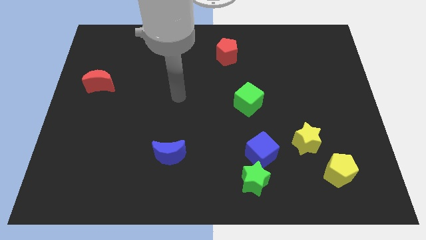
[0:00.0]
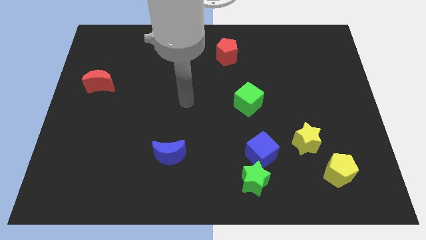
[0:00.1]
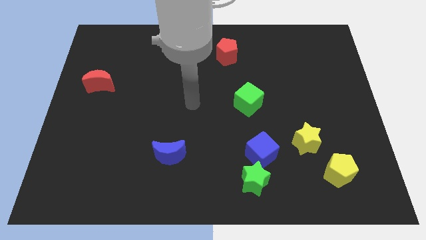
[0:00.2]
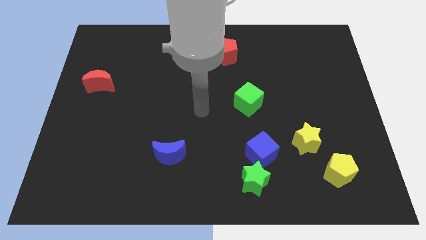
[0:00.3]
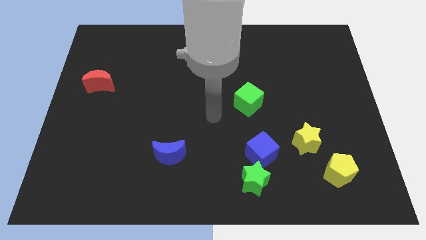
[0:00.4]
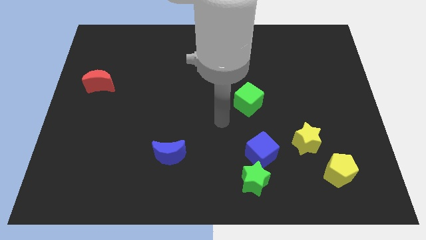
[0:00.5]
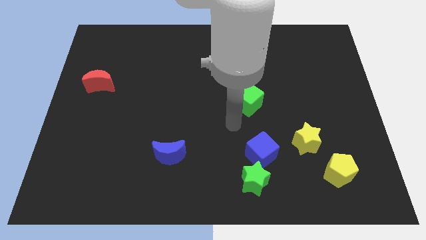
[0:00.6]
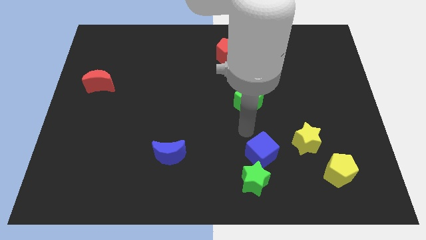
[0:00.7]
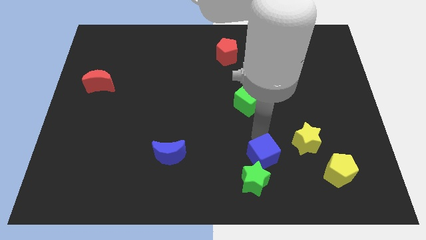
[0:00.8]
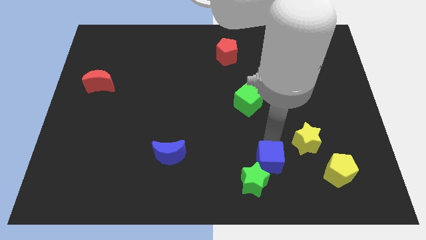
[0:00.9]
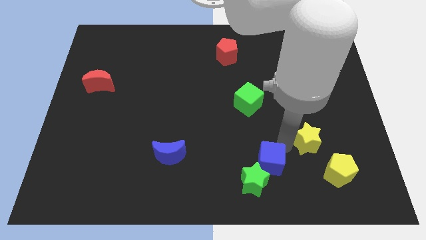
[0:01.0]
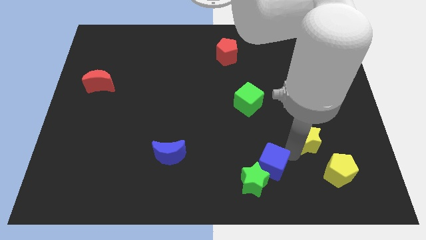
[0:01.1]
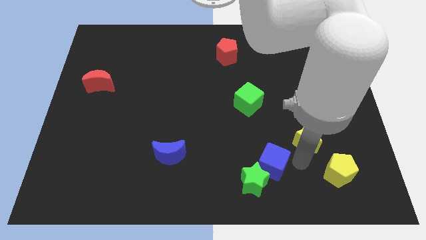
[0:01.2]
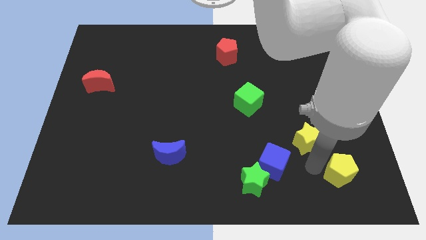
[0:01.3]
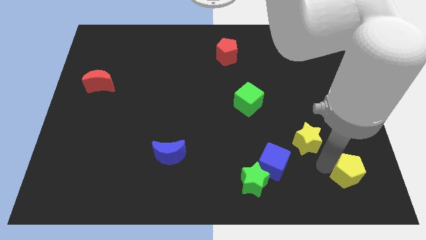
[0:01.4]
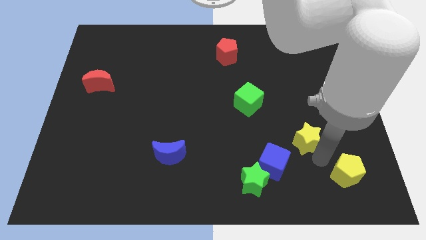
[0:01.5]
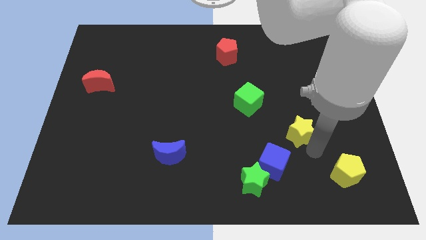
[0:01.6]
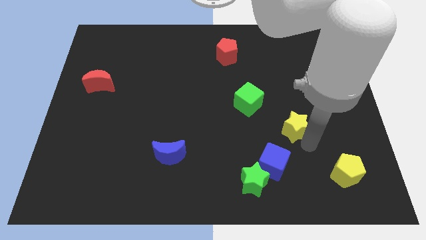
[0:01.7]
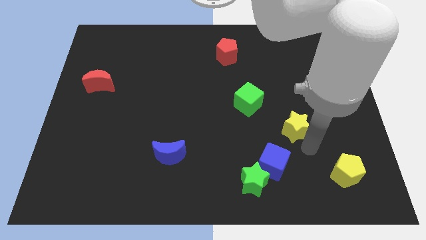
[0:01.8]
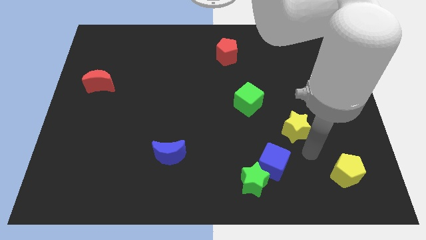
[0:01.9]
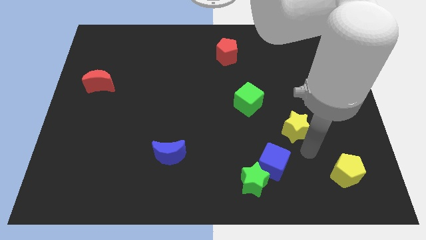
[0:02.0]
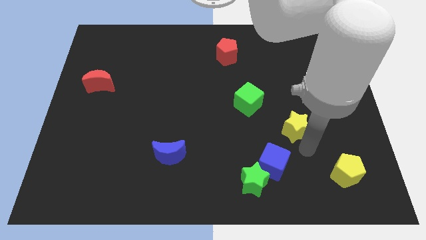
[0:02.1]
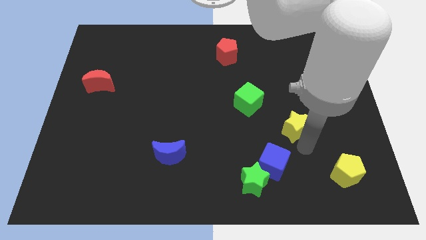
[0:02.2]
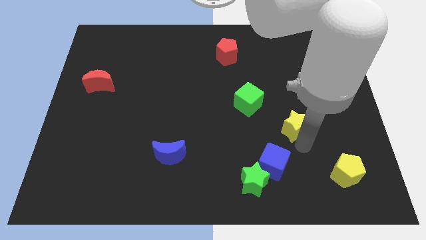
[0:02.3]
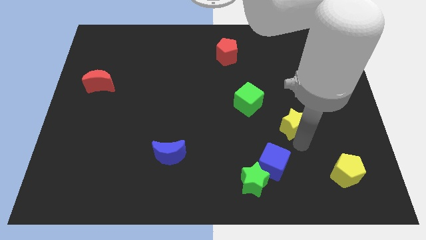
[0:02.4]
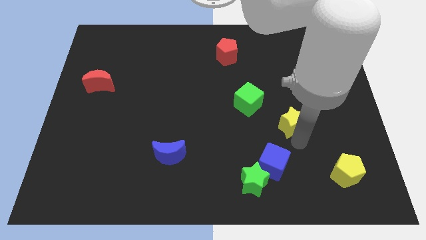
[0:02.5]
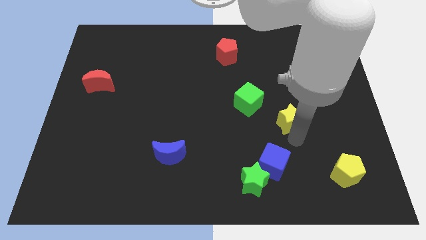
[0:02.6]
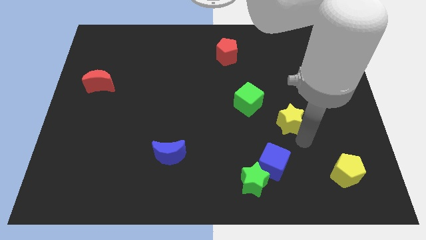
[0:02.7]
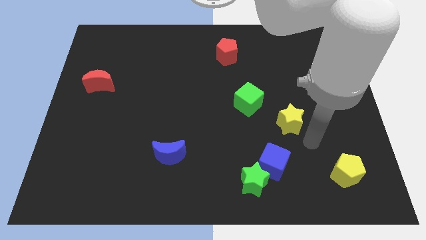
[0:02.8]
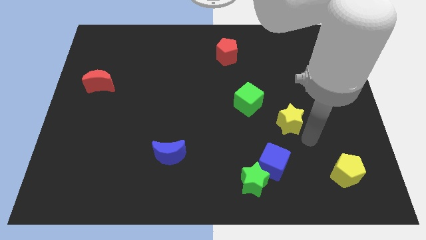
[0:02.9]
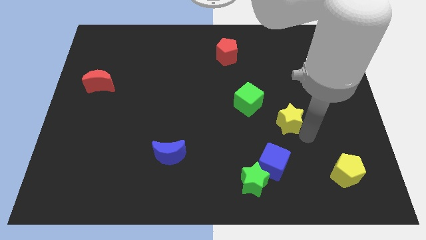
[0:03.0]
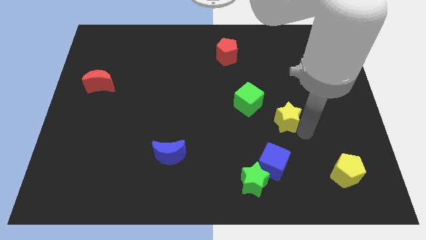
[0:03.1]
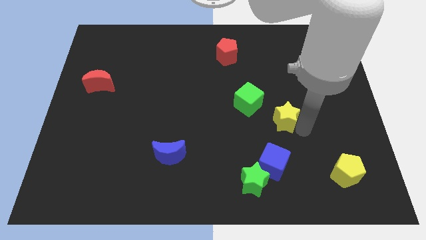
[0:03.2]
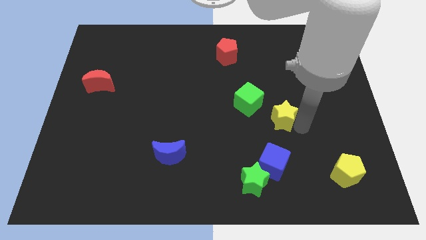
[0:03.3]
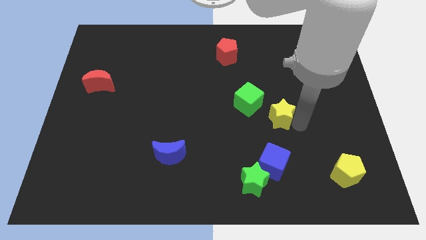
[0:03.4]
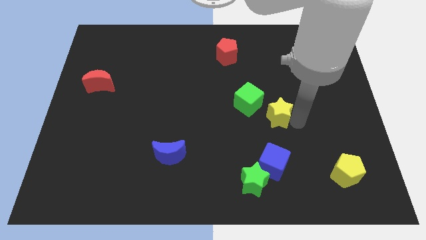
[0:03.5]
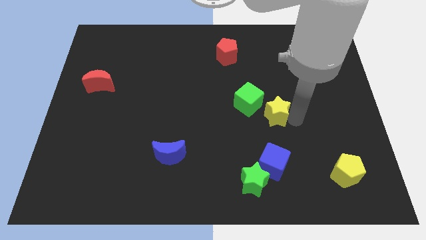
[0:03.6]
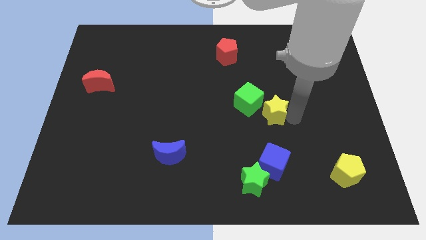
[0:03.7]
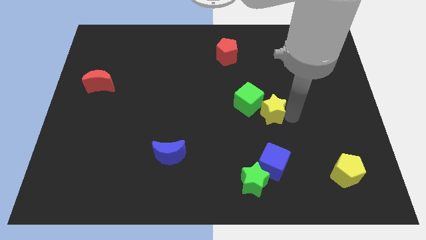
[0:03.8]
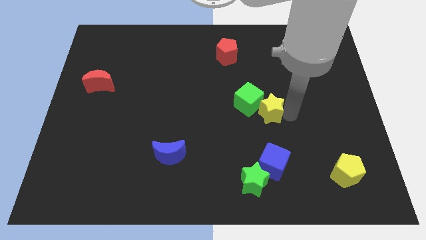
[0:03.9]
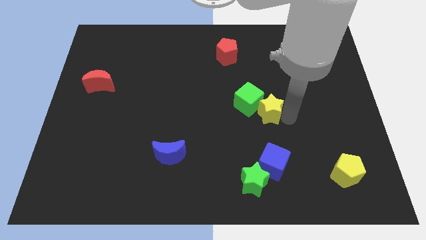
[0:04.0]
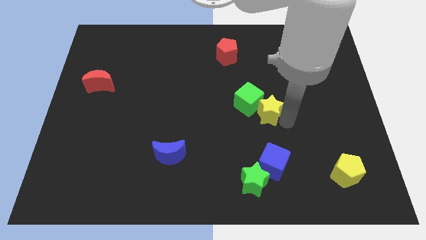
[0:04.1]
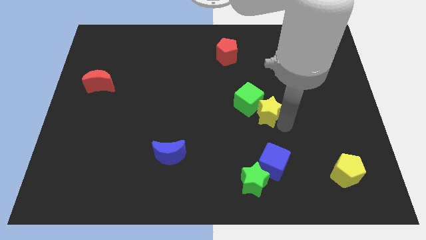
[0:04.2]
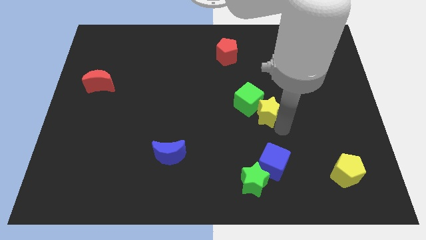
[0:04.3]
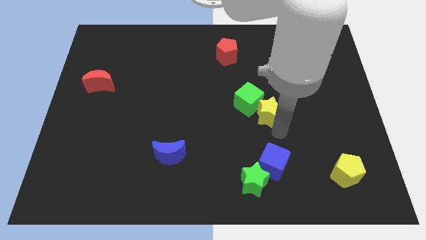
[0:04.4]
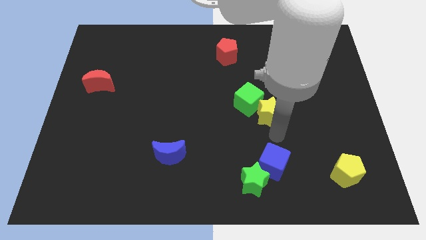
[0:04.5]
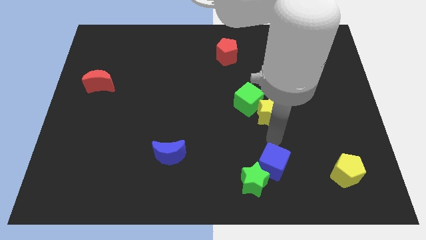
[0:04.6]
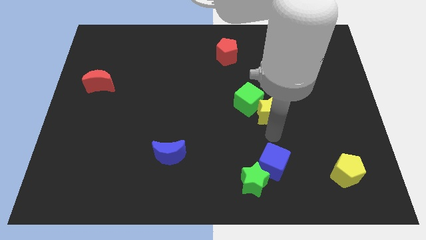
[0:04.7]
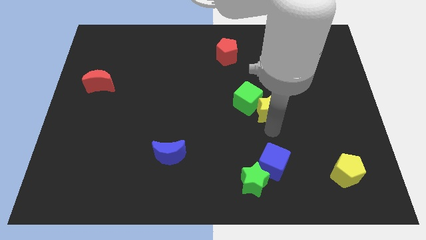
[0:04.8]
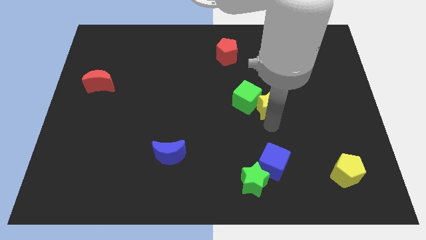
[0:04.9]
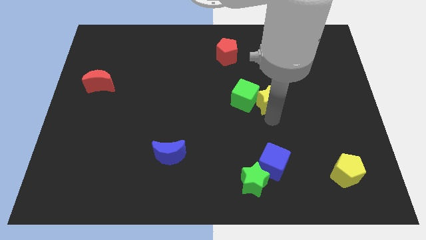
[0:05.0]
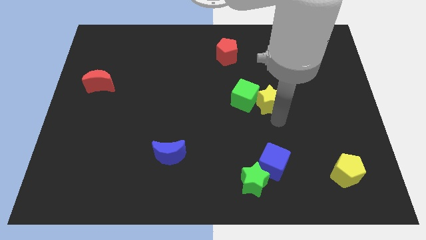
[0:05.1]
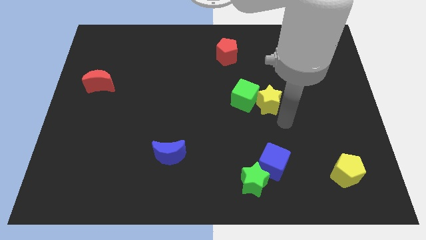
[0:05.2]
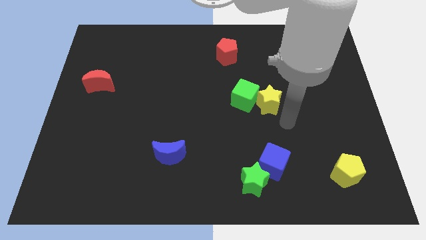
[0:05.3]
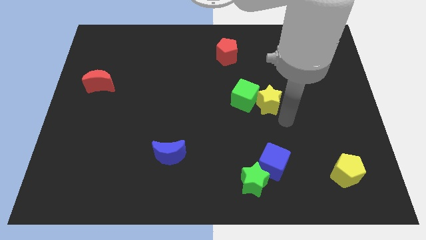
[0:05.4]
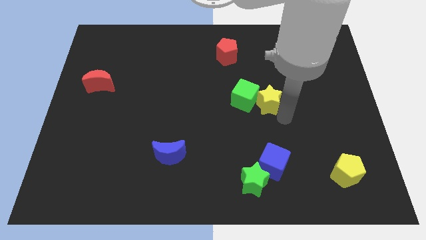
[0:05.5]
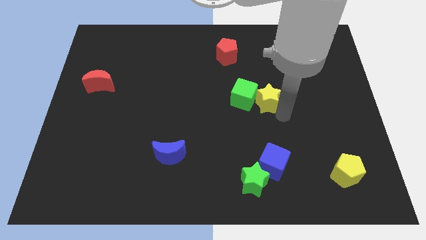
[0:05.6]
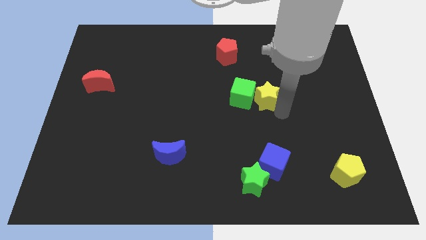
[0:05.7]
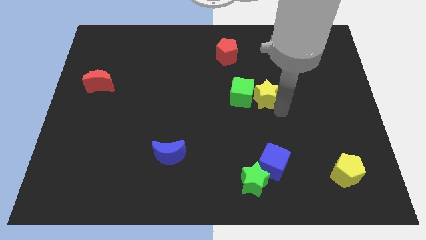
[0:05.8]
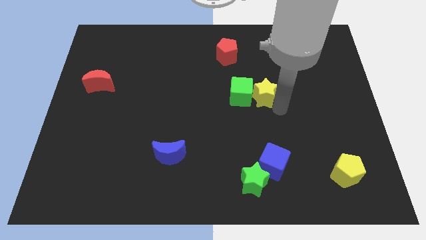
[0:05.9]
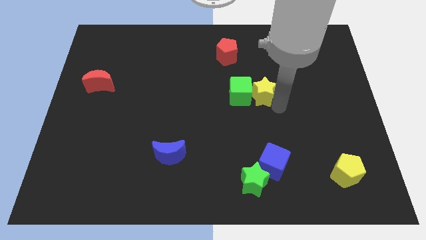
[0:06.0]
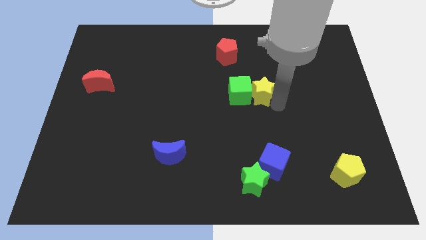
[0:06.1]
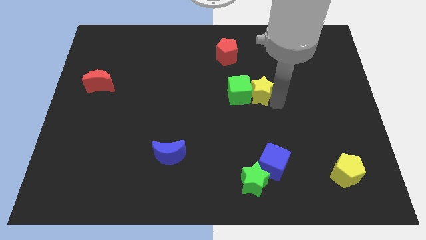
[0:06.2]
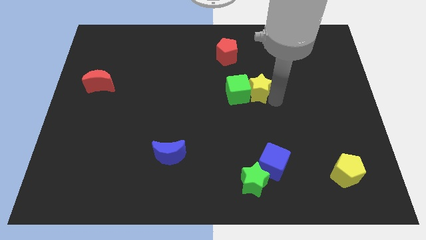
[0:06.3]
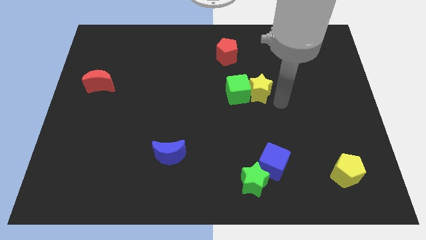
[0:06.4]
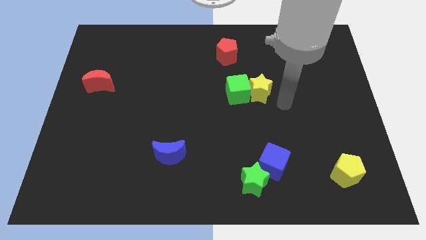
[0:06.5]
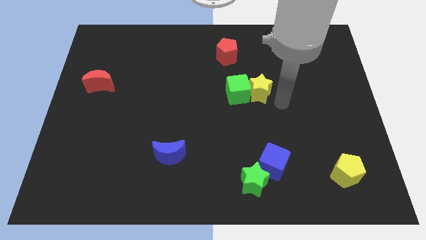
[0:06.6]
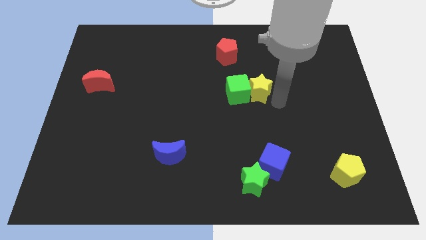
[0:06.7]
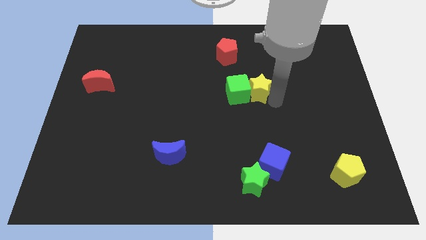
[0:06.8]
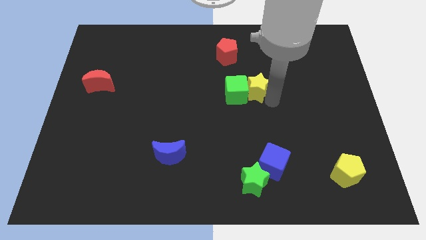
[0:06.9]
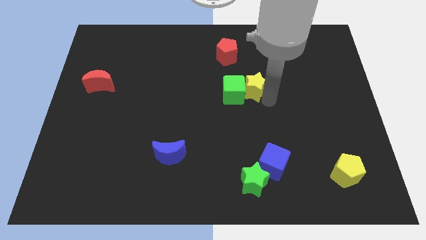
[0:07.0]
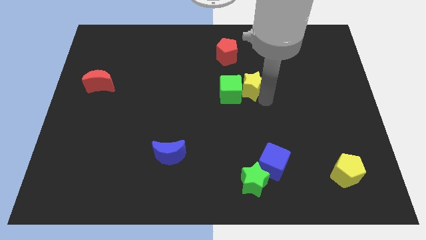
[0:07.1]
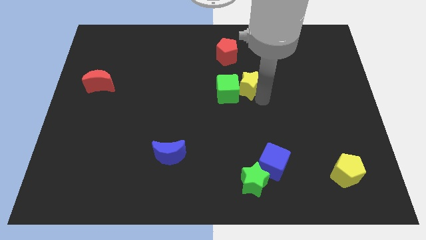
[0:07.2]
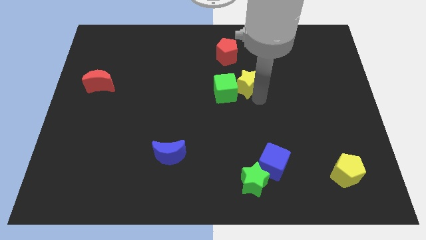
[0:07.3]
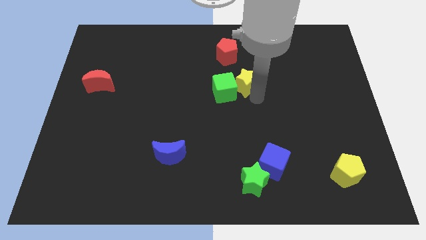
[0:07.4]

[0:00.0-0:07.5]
push the yellow star up and left

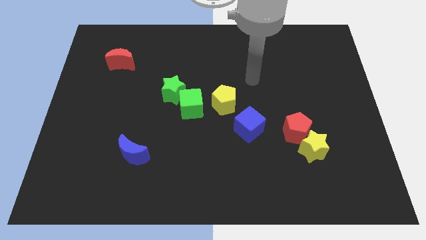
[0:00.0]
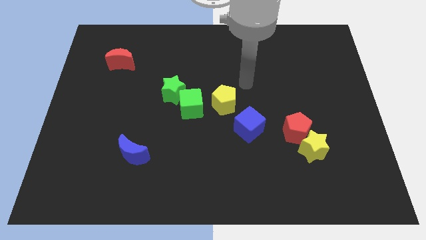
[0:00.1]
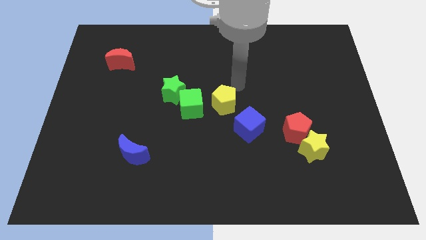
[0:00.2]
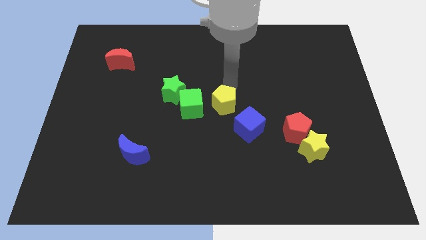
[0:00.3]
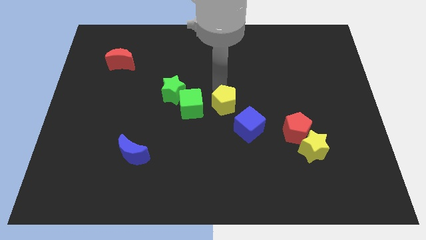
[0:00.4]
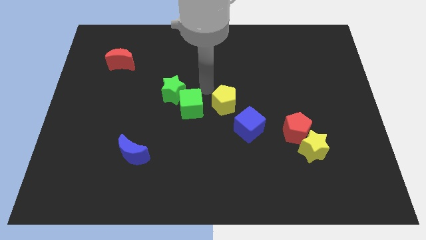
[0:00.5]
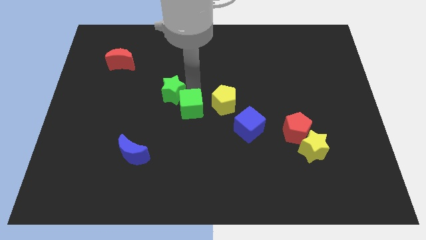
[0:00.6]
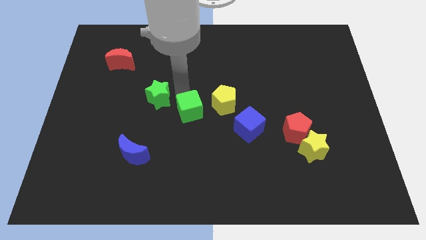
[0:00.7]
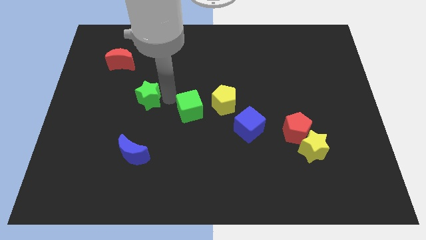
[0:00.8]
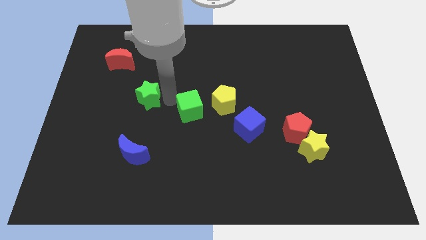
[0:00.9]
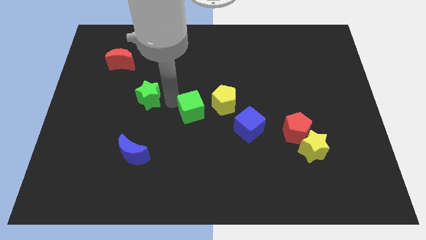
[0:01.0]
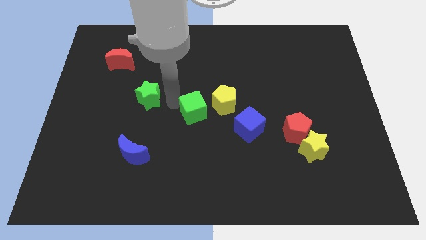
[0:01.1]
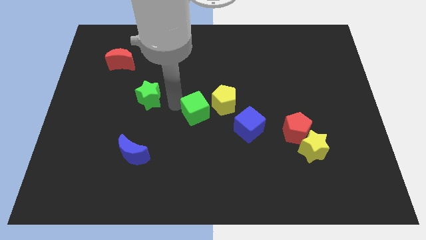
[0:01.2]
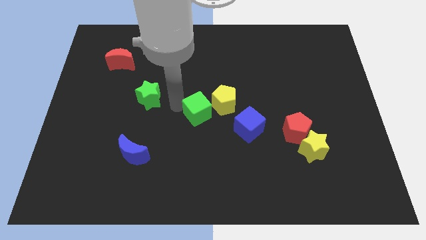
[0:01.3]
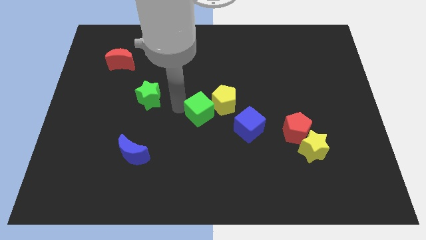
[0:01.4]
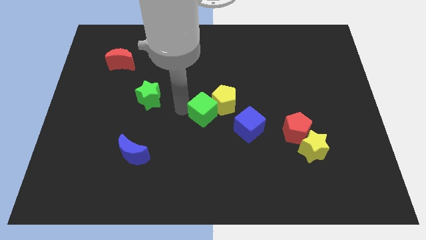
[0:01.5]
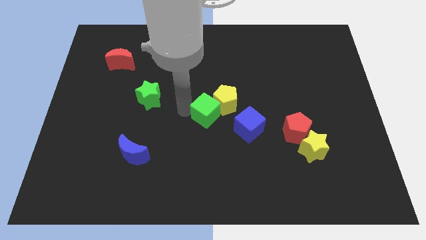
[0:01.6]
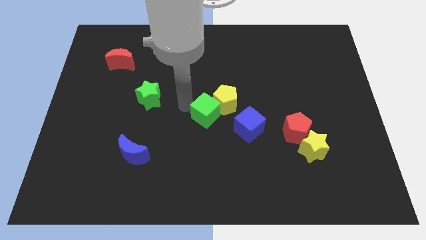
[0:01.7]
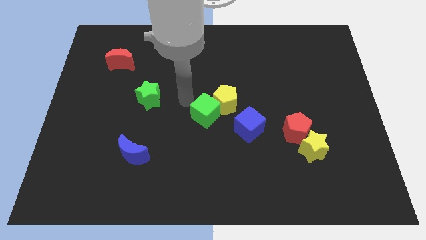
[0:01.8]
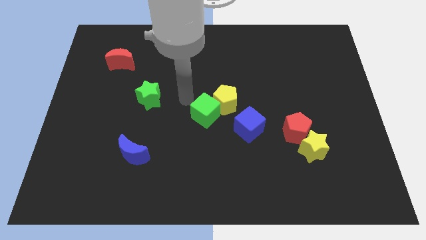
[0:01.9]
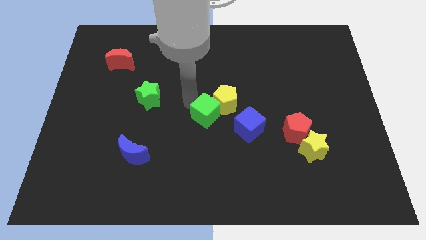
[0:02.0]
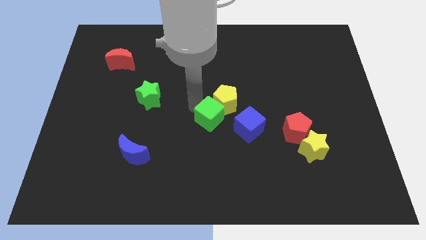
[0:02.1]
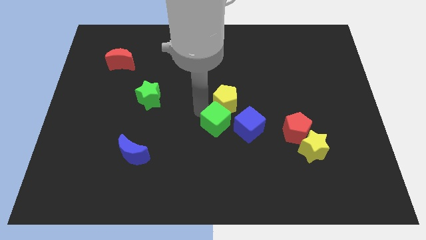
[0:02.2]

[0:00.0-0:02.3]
push the green cube slightly downwards and to the right diagonally
